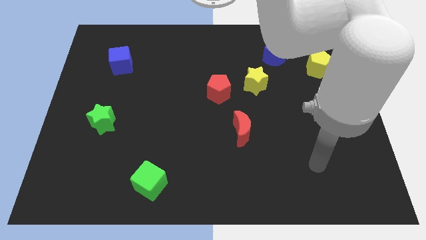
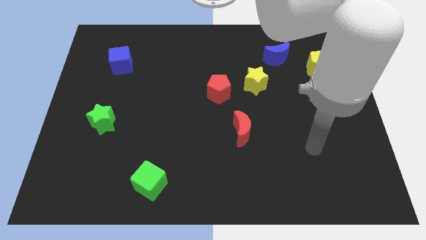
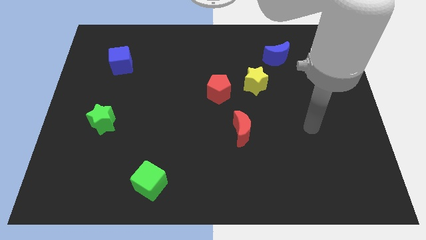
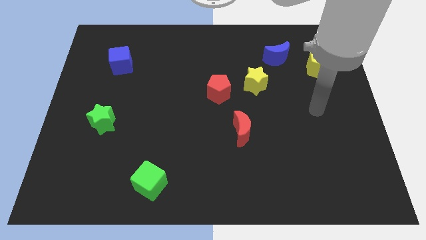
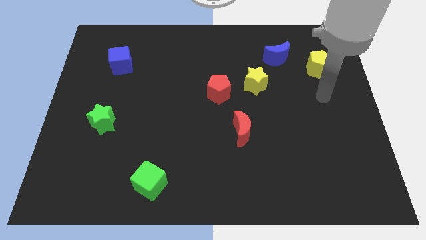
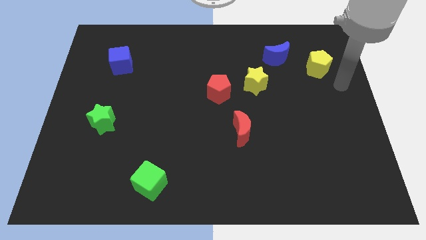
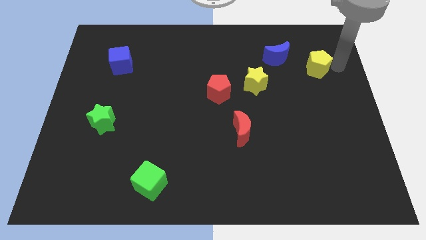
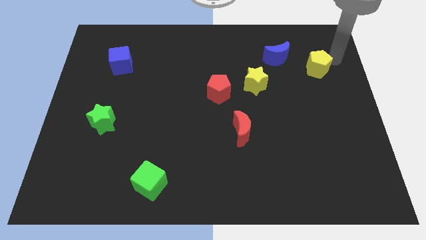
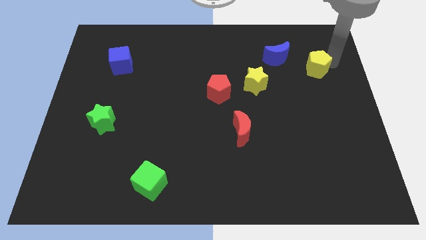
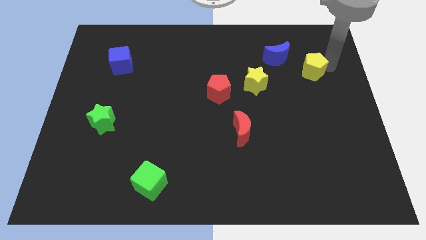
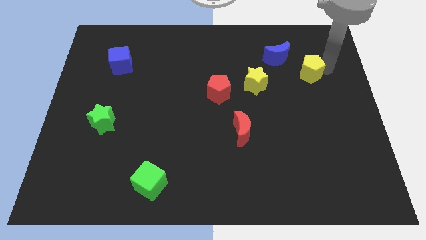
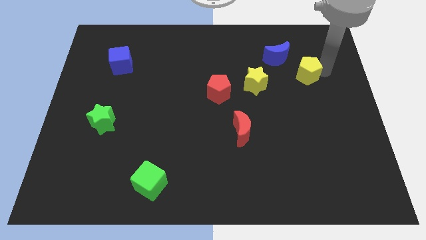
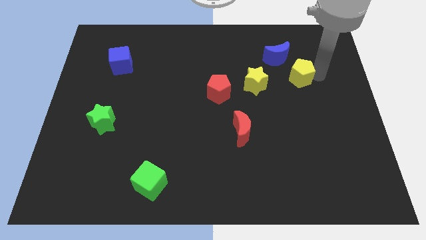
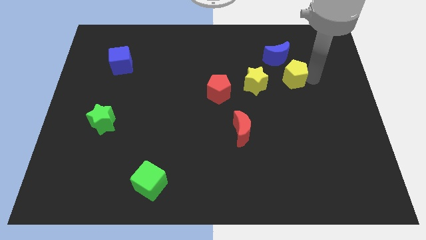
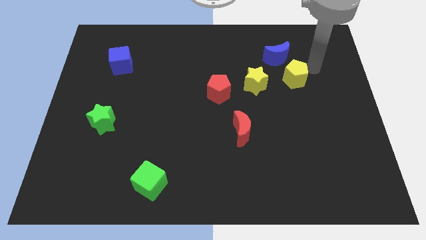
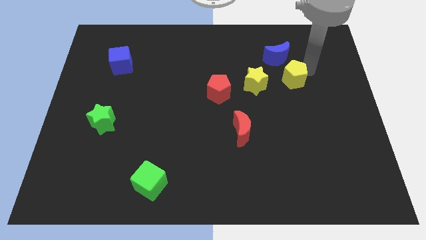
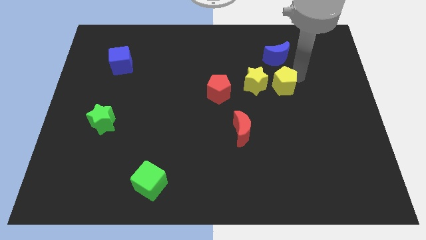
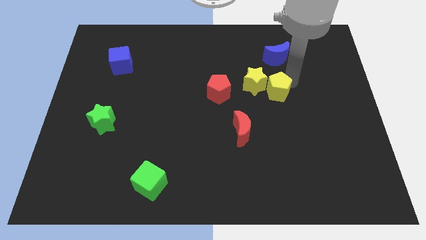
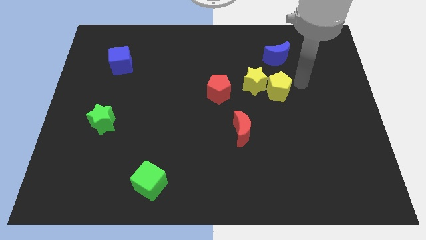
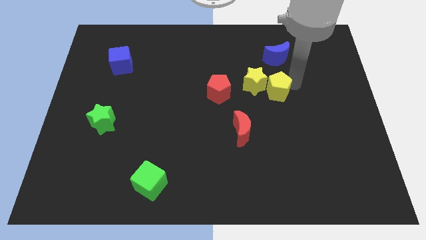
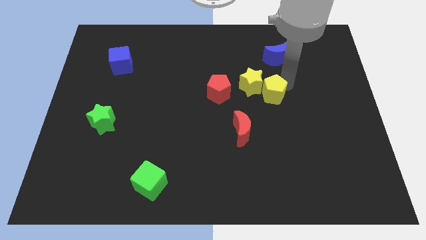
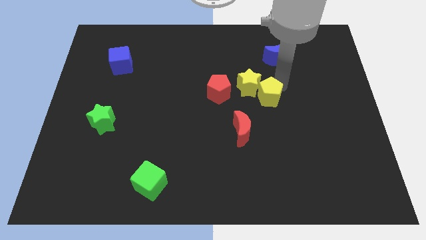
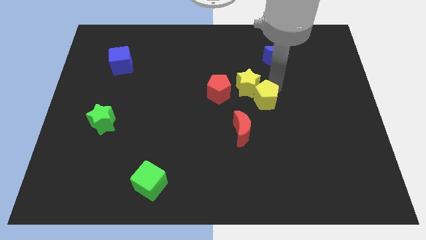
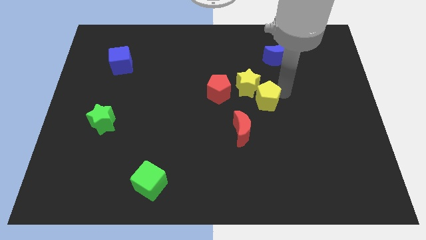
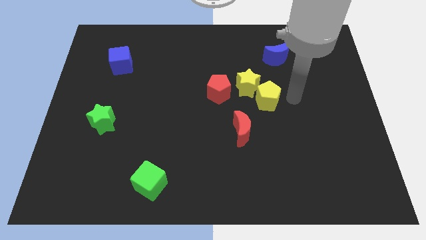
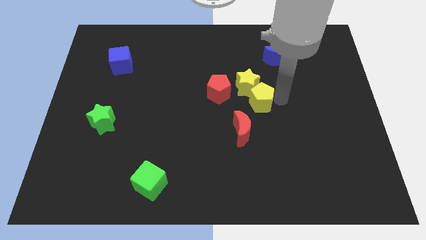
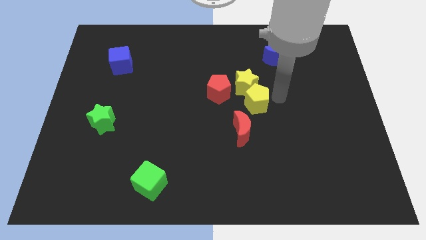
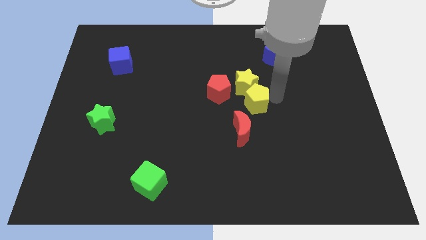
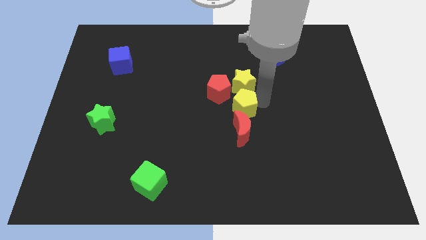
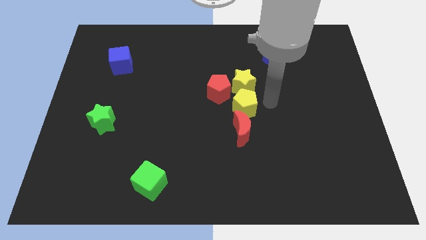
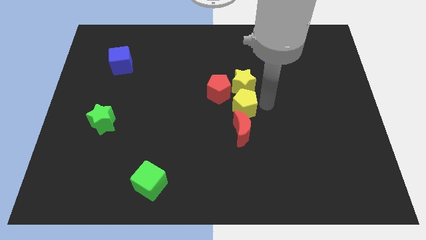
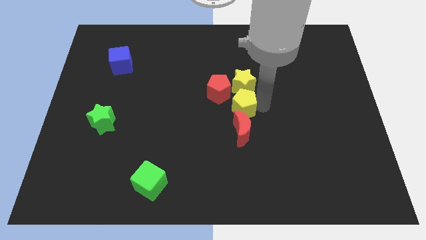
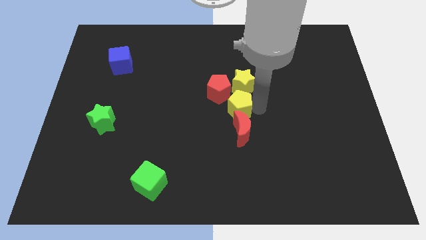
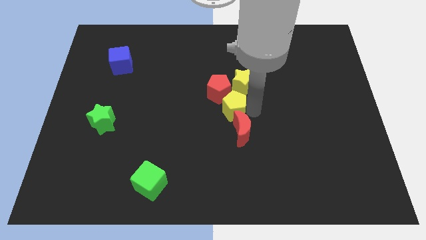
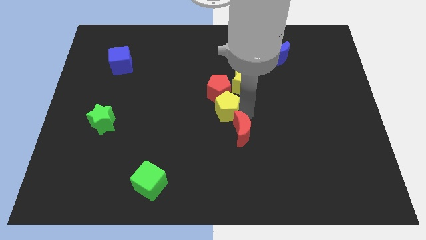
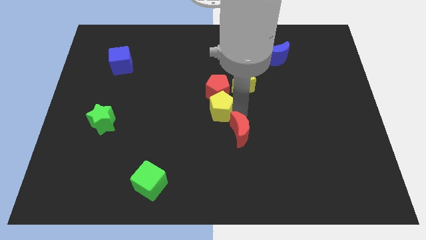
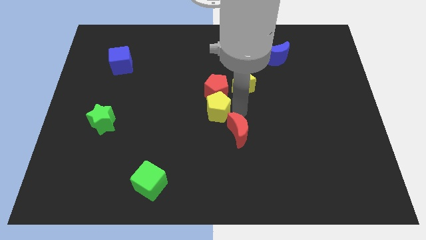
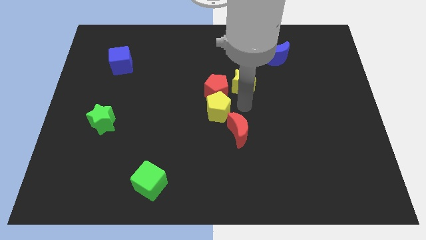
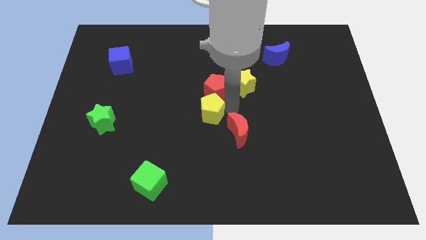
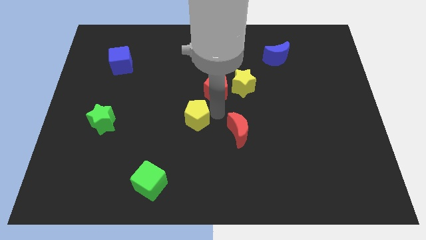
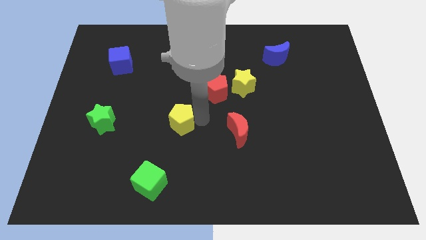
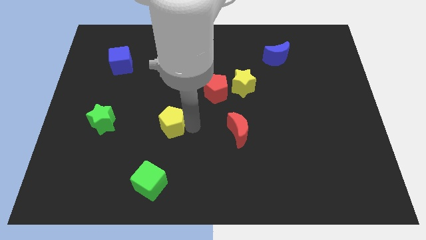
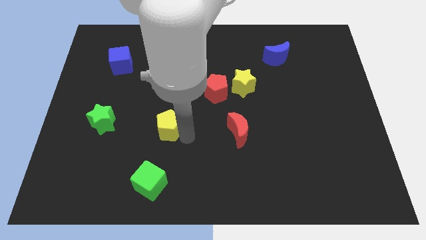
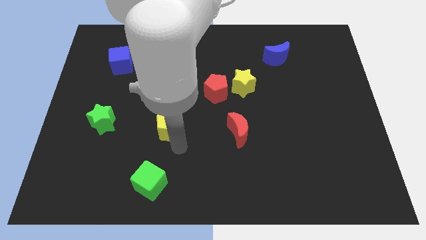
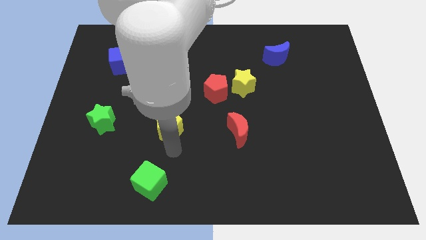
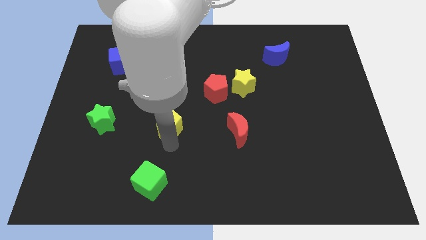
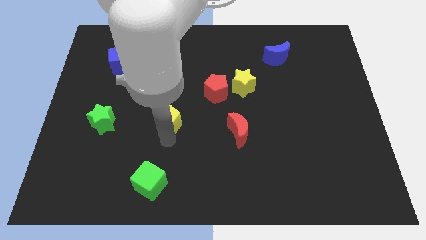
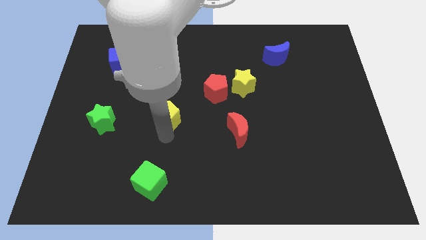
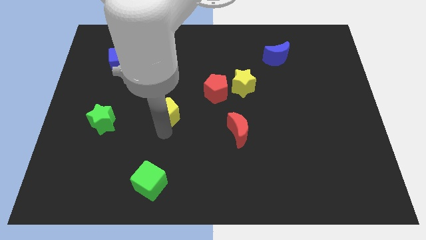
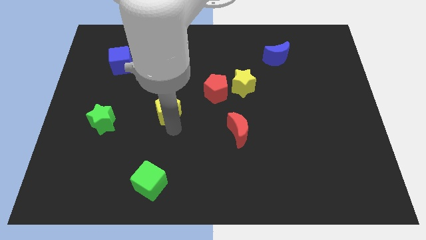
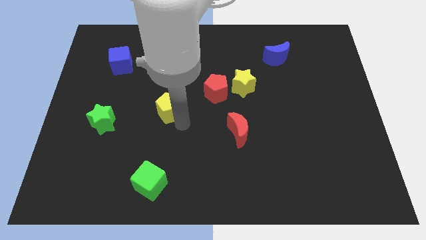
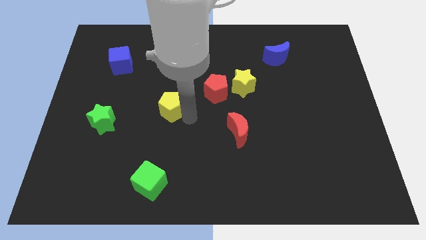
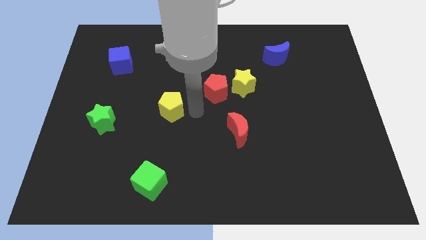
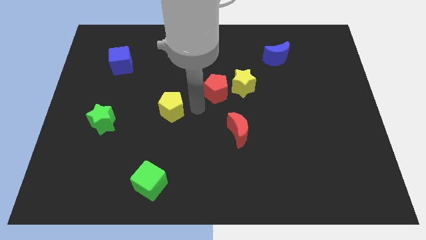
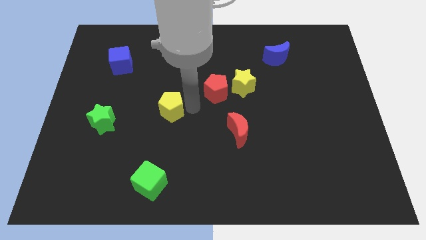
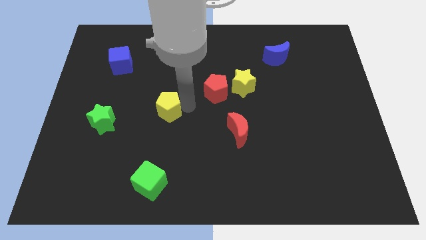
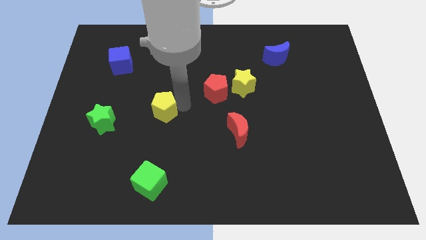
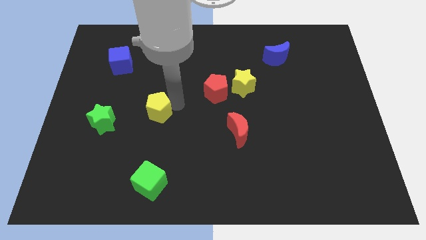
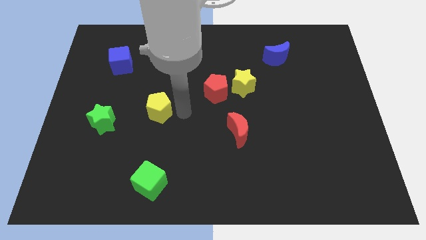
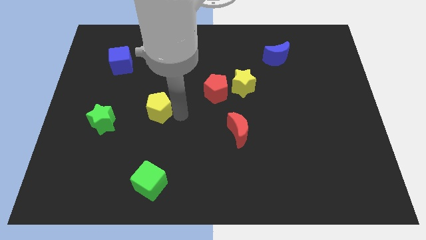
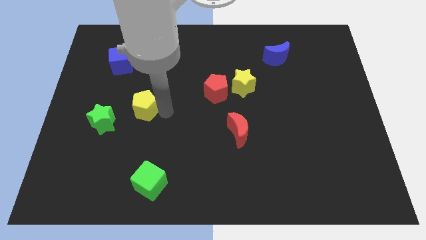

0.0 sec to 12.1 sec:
put the yellow pentagon diagonally up and to the right of the green star

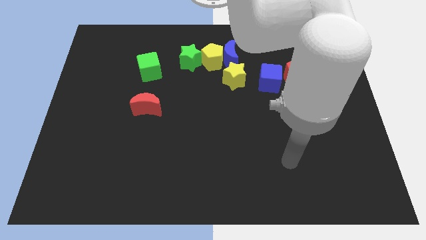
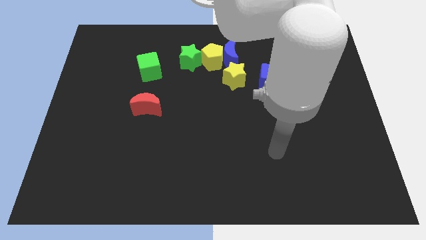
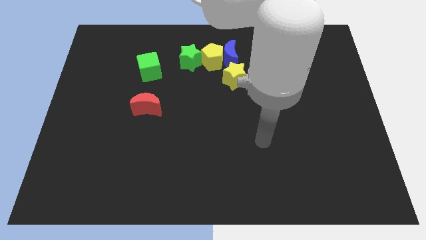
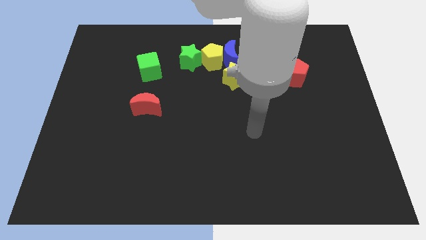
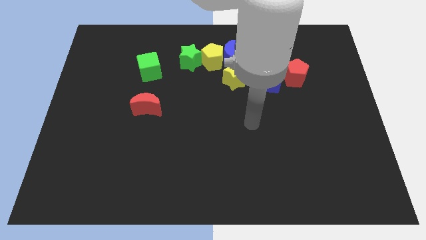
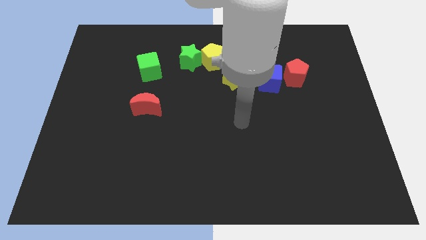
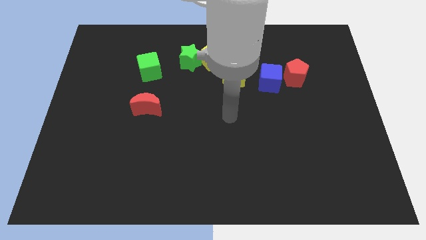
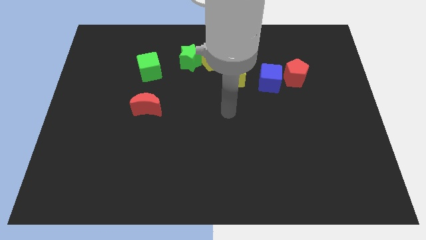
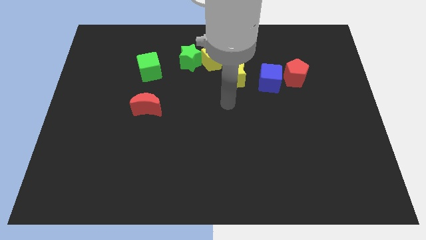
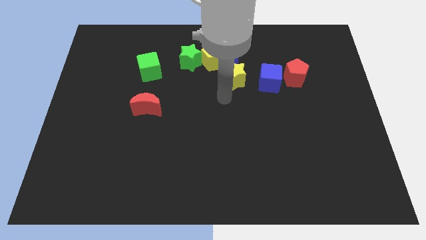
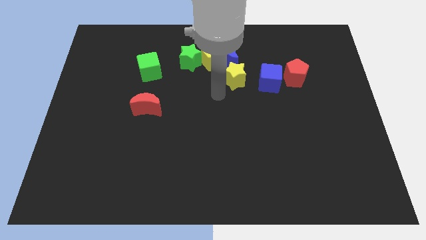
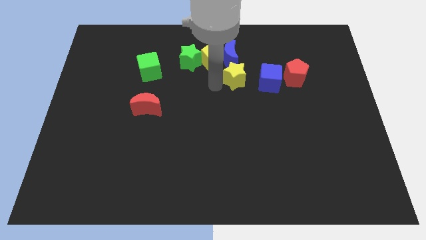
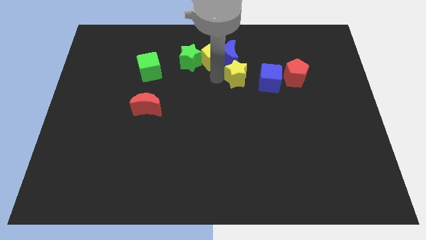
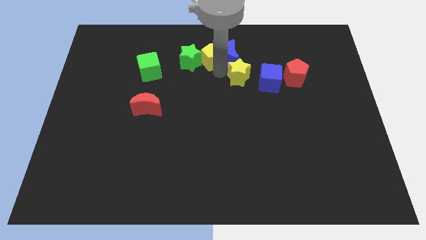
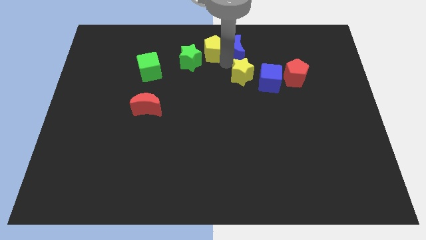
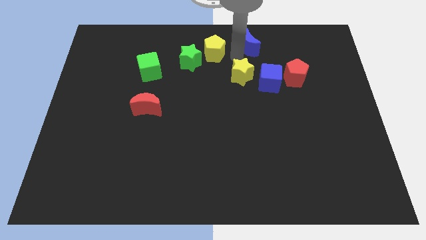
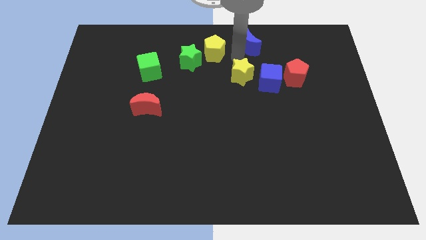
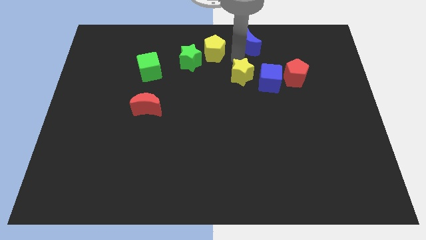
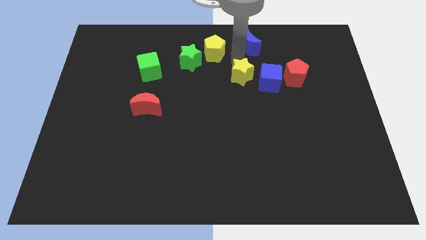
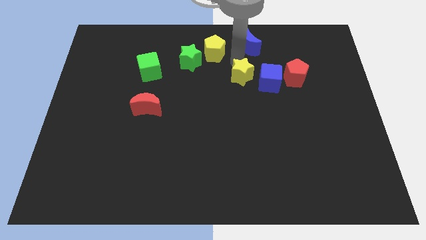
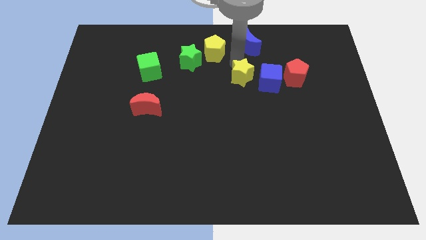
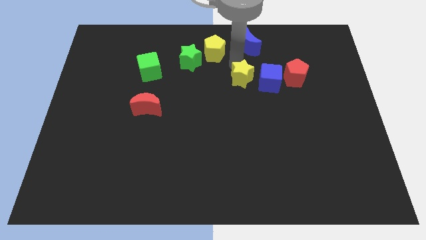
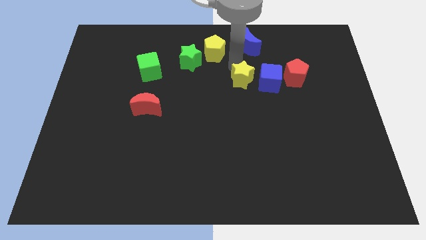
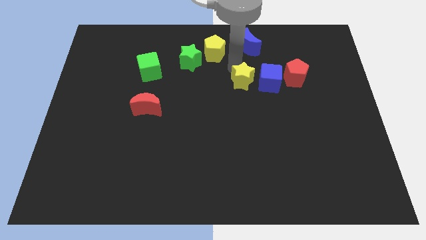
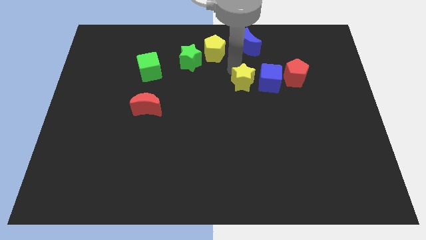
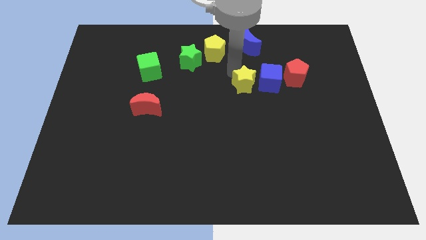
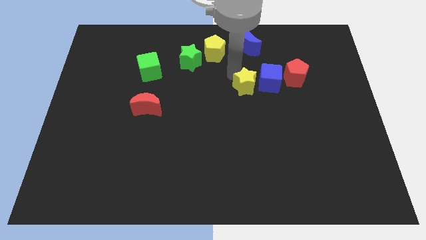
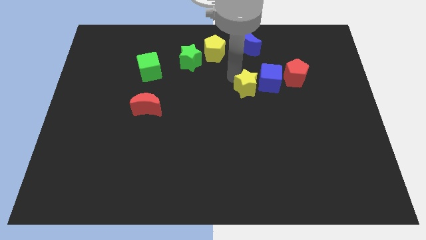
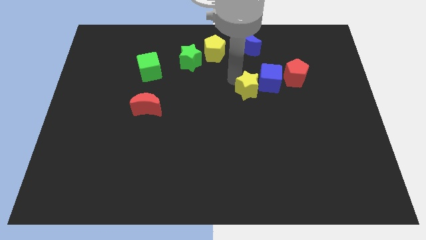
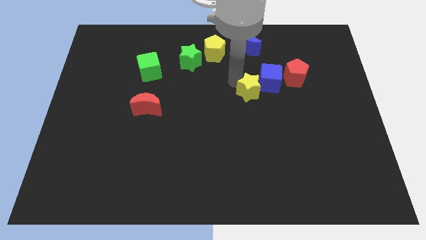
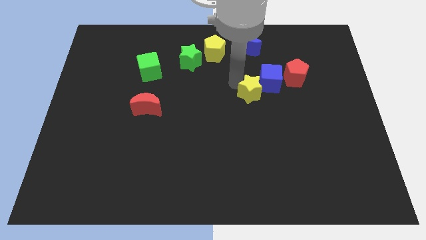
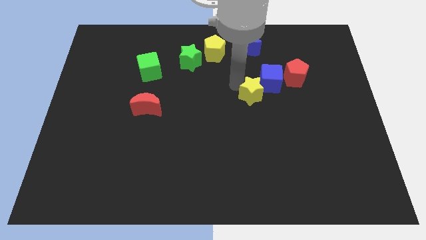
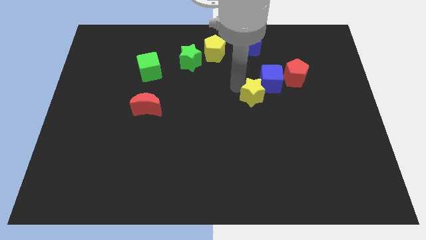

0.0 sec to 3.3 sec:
move the yellow star to the bottom side of the blue cube
